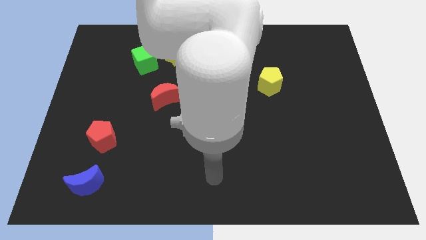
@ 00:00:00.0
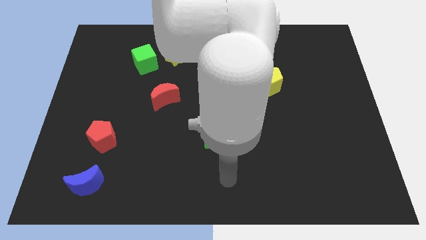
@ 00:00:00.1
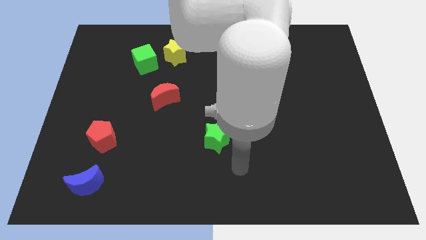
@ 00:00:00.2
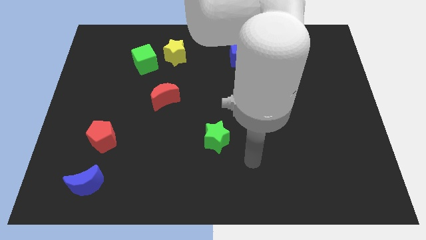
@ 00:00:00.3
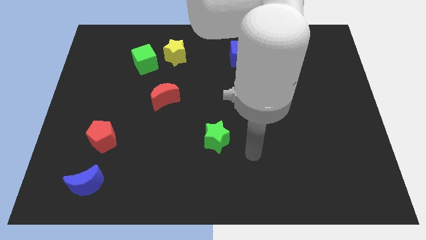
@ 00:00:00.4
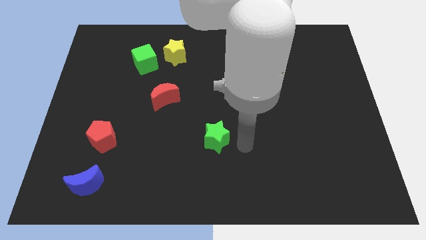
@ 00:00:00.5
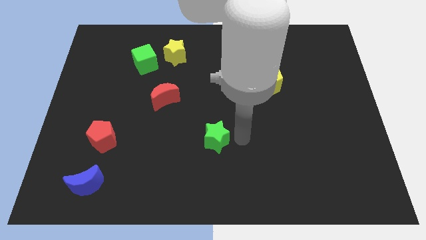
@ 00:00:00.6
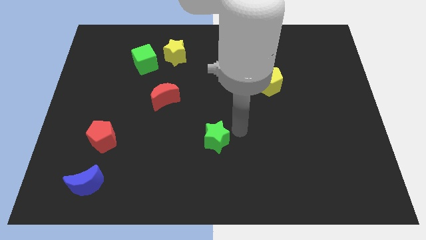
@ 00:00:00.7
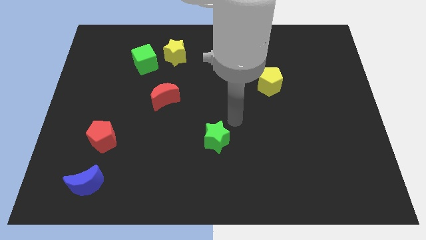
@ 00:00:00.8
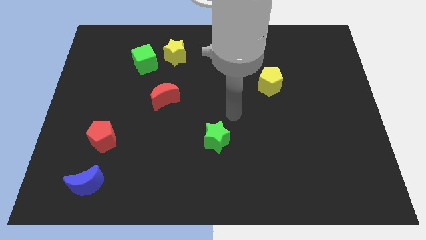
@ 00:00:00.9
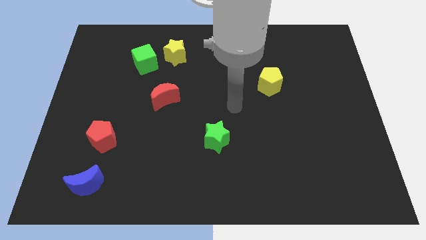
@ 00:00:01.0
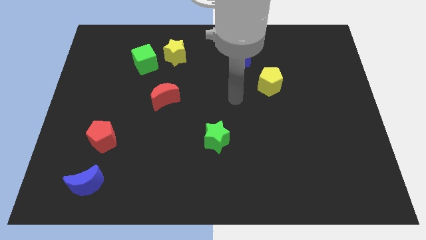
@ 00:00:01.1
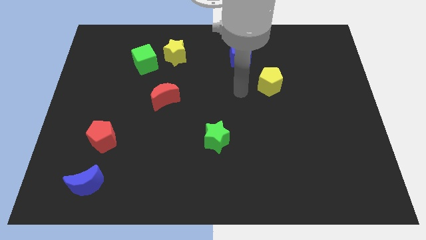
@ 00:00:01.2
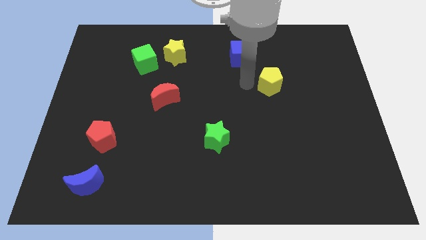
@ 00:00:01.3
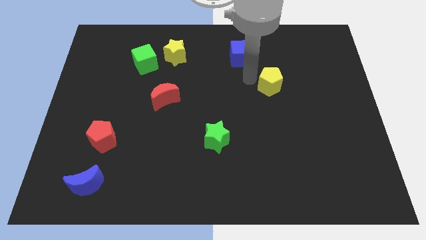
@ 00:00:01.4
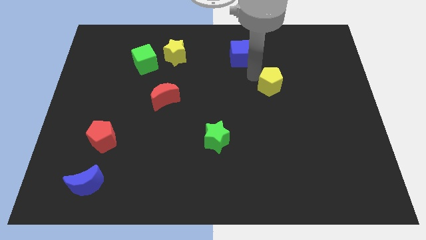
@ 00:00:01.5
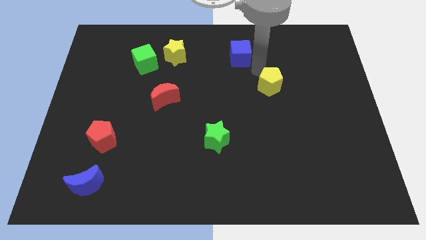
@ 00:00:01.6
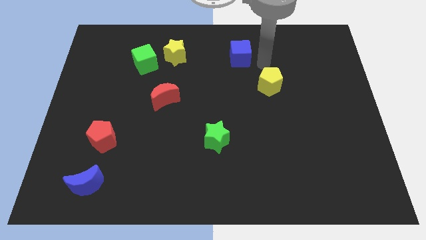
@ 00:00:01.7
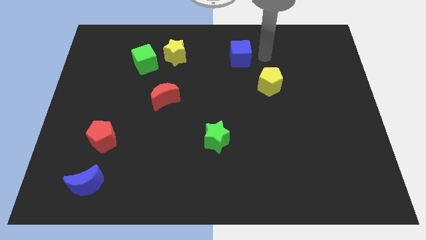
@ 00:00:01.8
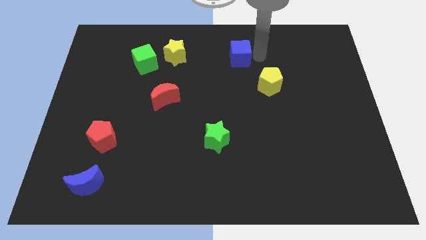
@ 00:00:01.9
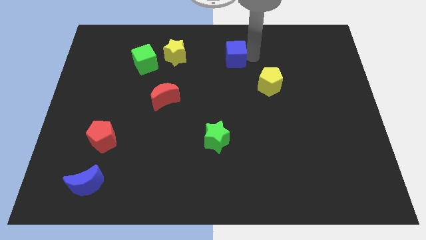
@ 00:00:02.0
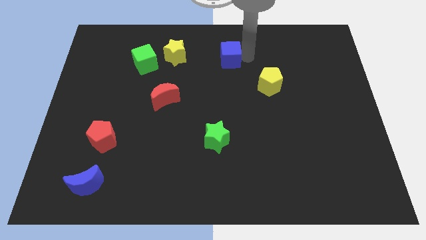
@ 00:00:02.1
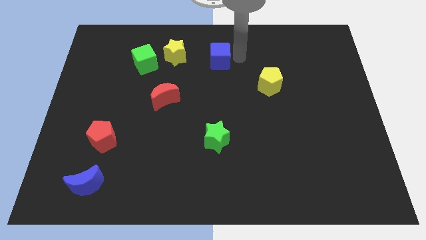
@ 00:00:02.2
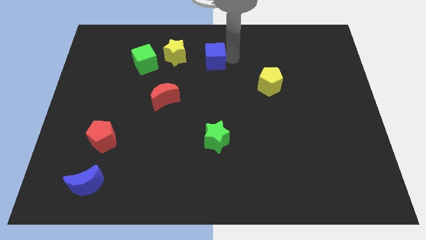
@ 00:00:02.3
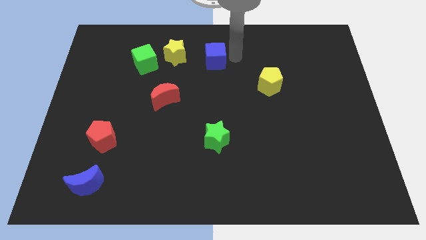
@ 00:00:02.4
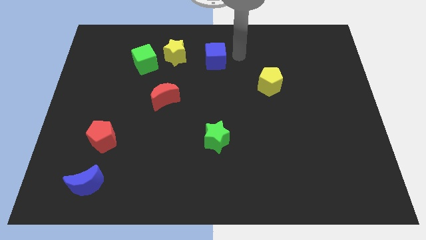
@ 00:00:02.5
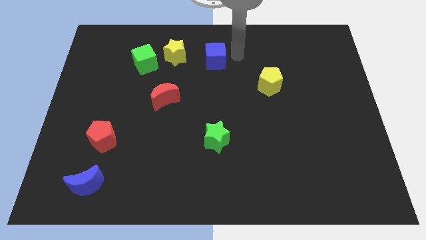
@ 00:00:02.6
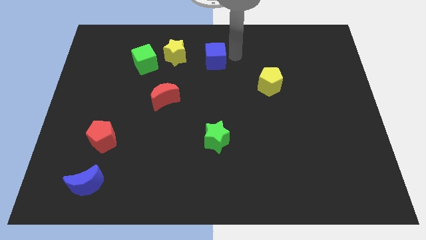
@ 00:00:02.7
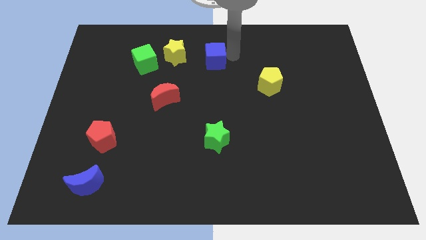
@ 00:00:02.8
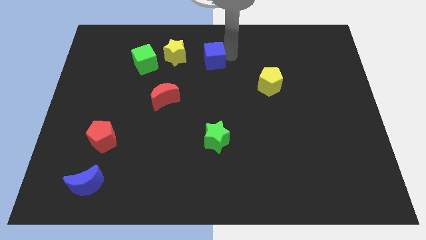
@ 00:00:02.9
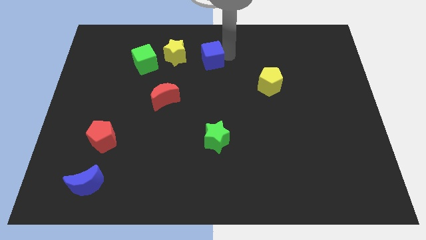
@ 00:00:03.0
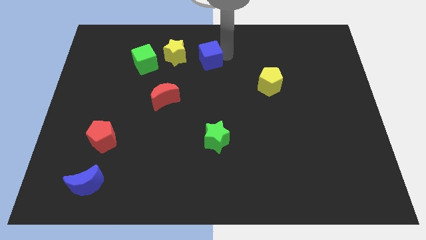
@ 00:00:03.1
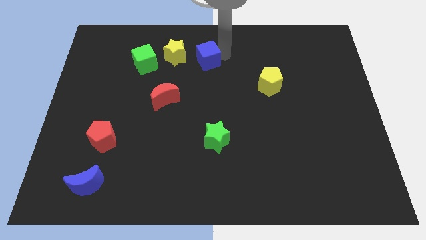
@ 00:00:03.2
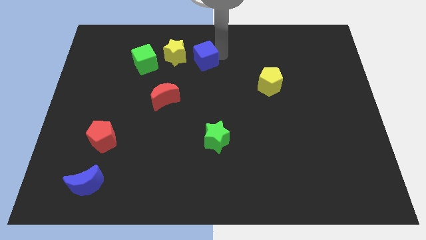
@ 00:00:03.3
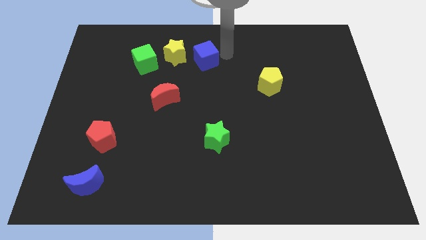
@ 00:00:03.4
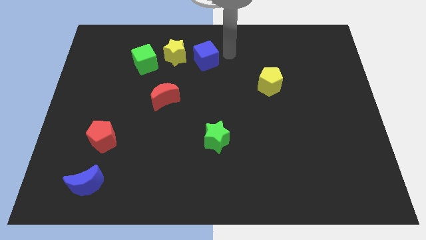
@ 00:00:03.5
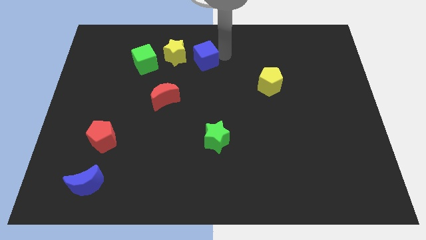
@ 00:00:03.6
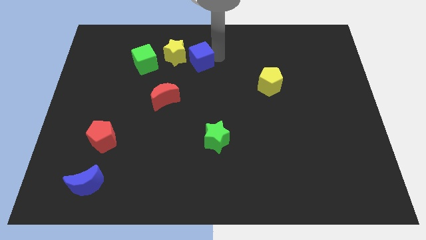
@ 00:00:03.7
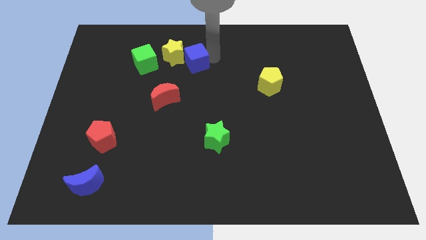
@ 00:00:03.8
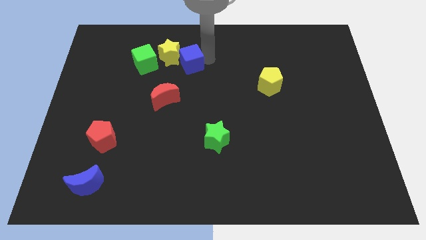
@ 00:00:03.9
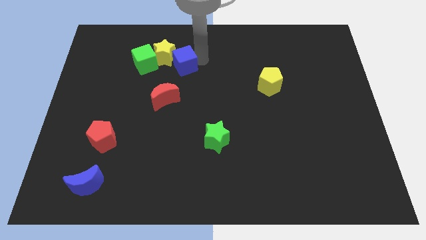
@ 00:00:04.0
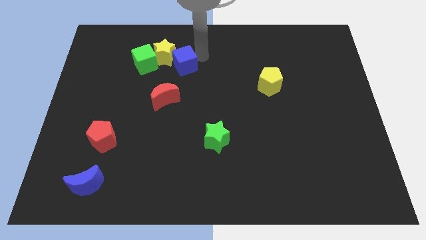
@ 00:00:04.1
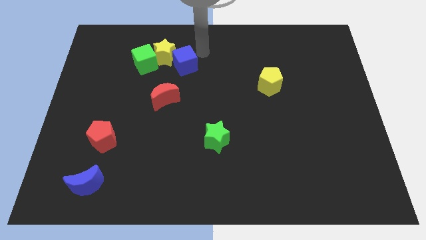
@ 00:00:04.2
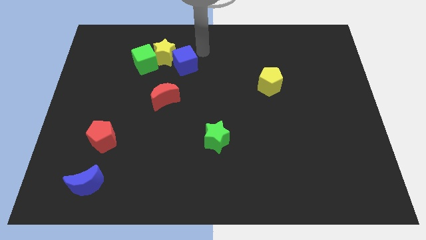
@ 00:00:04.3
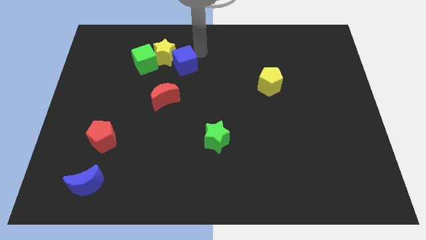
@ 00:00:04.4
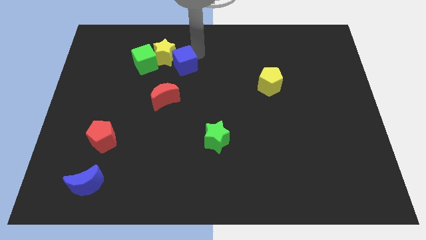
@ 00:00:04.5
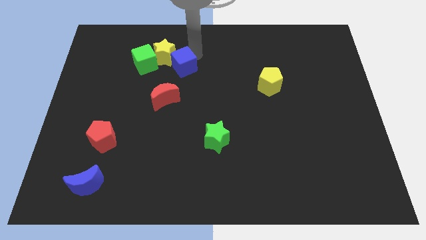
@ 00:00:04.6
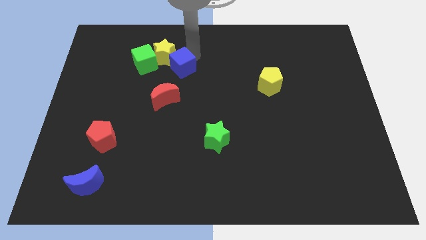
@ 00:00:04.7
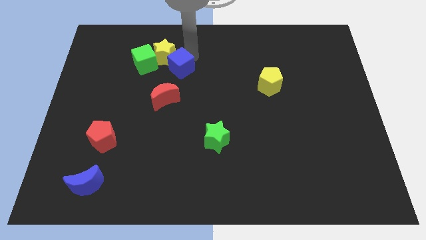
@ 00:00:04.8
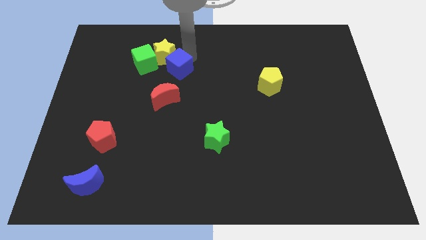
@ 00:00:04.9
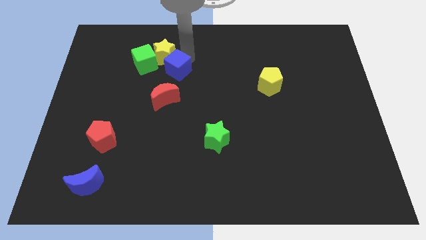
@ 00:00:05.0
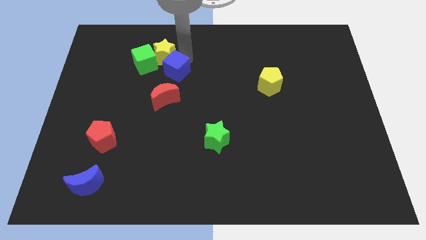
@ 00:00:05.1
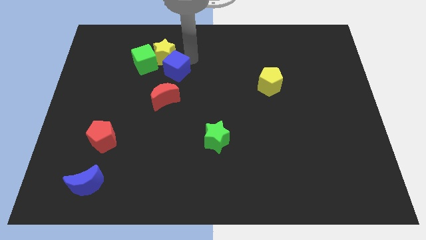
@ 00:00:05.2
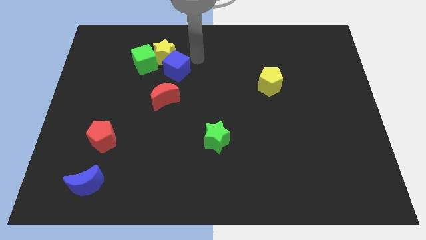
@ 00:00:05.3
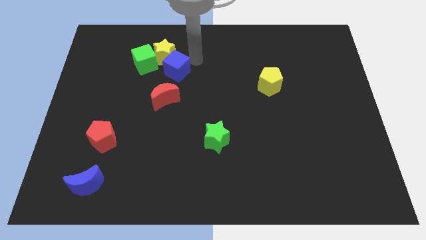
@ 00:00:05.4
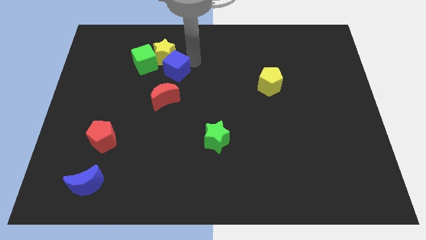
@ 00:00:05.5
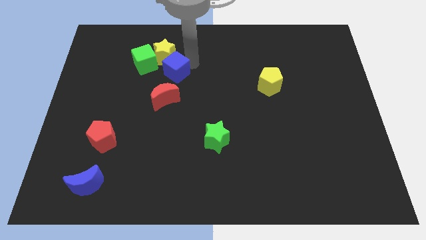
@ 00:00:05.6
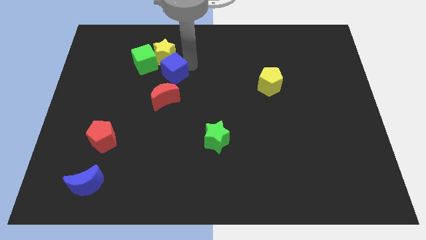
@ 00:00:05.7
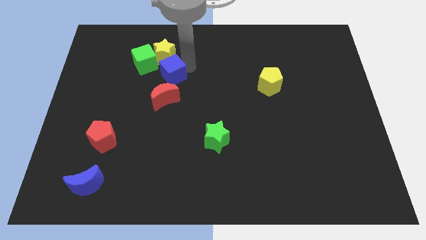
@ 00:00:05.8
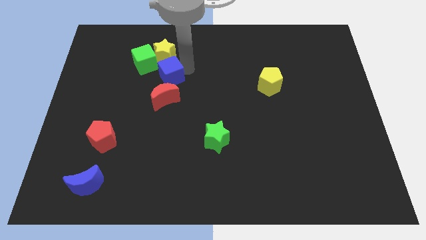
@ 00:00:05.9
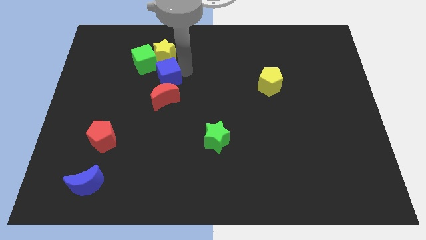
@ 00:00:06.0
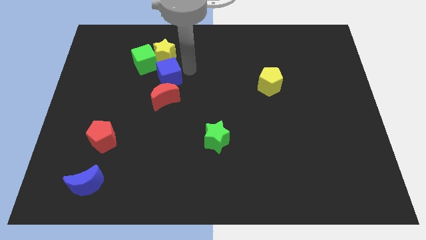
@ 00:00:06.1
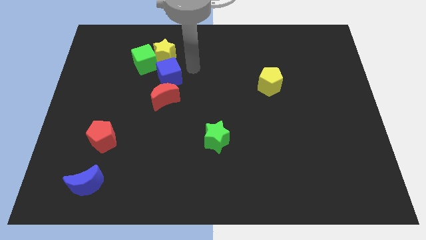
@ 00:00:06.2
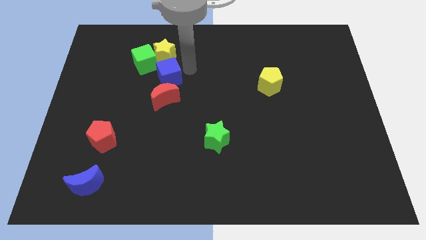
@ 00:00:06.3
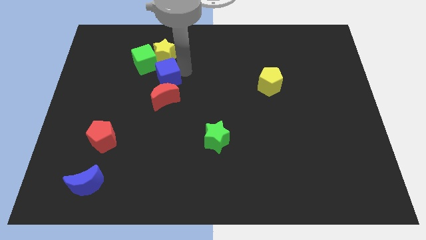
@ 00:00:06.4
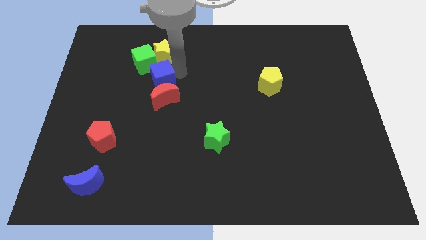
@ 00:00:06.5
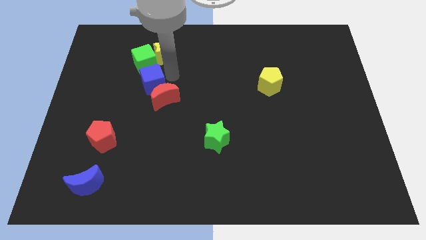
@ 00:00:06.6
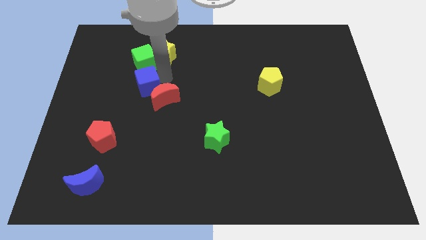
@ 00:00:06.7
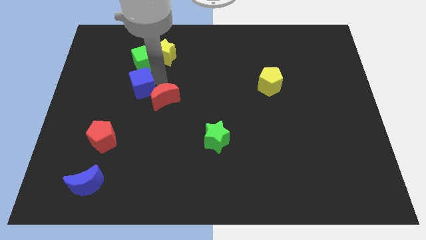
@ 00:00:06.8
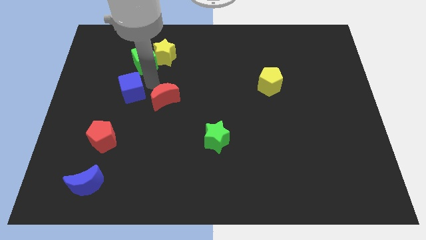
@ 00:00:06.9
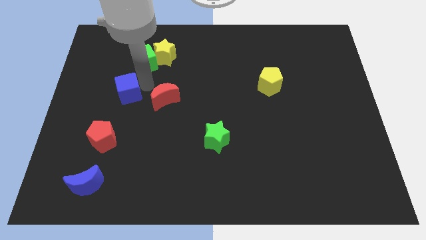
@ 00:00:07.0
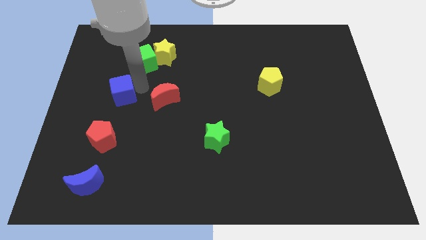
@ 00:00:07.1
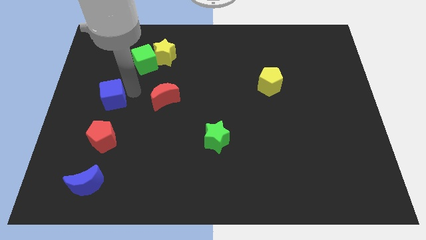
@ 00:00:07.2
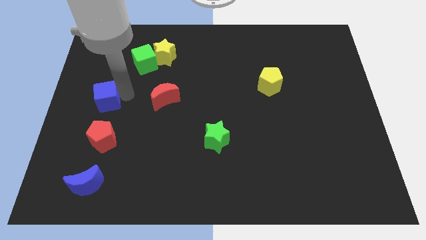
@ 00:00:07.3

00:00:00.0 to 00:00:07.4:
put the blue cube to the left side of the board
